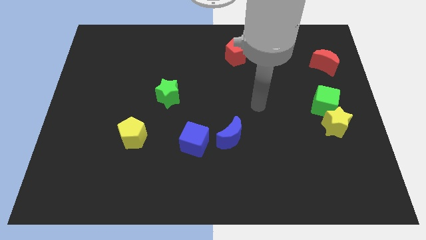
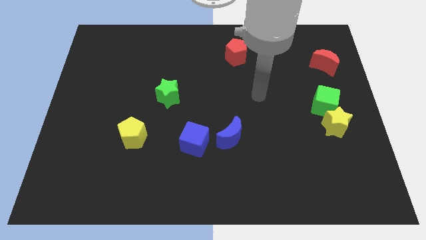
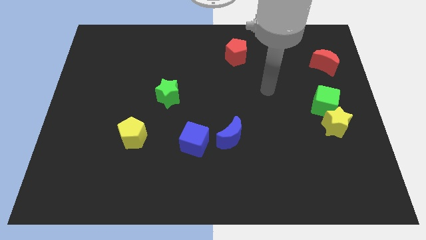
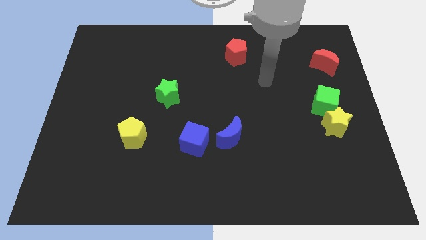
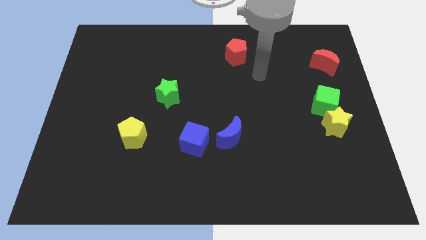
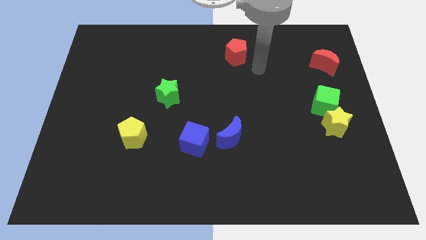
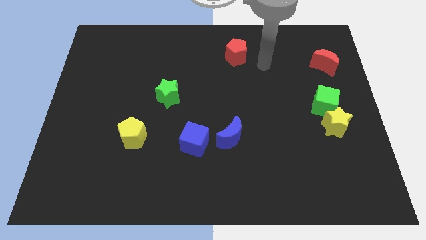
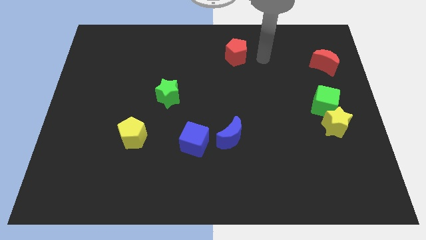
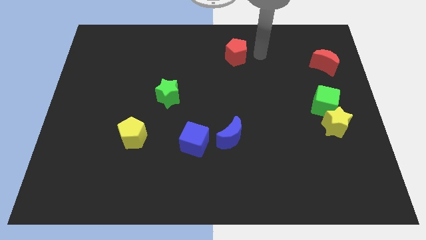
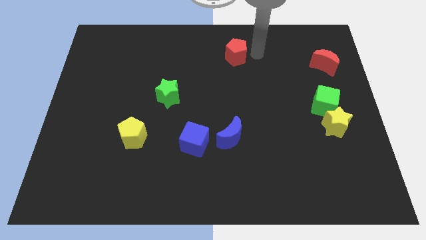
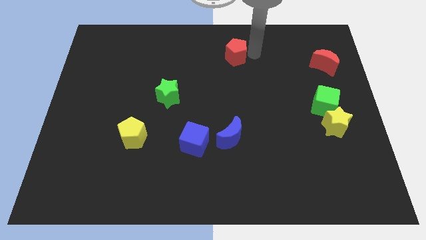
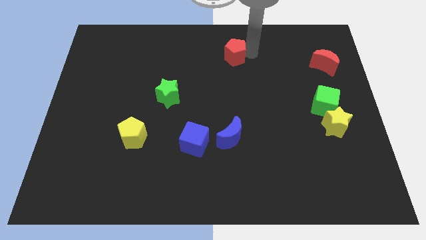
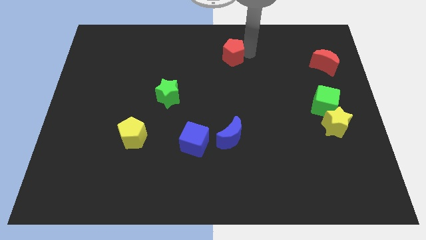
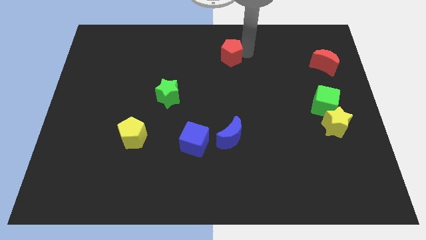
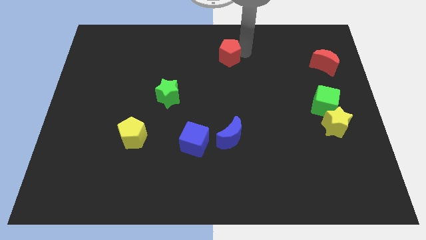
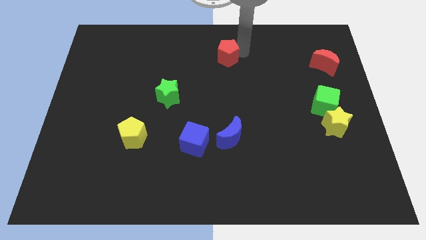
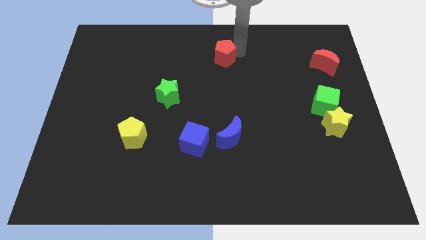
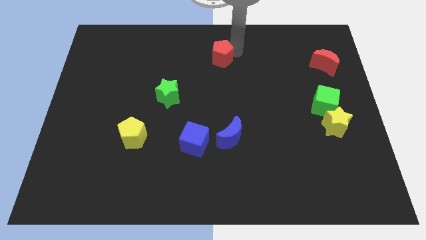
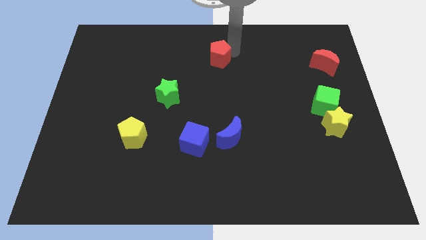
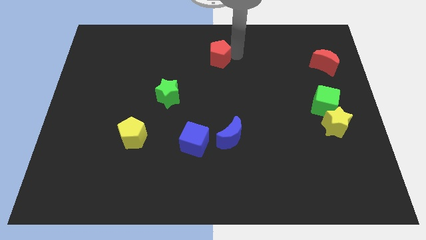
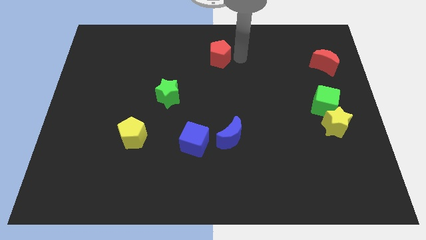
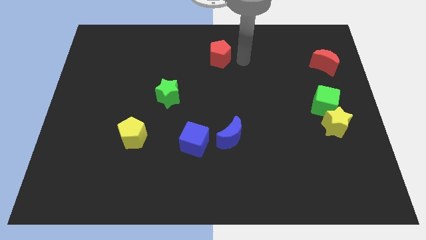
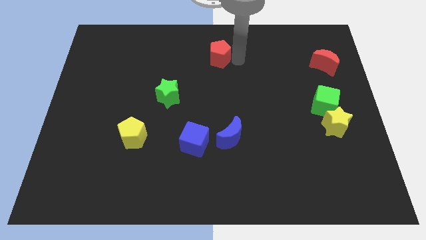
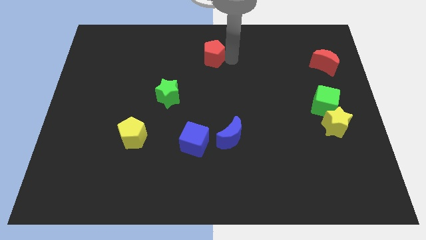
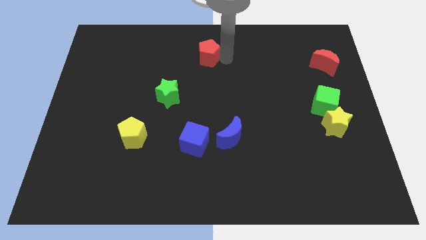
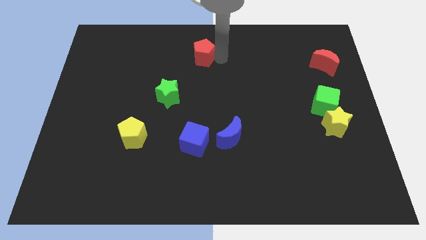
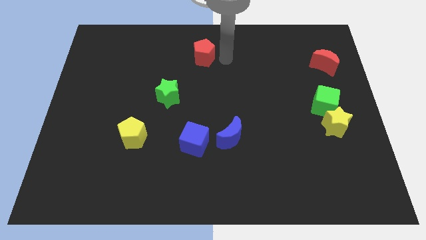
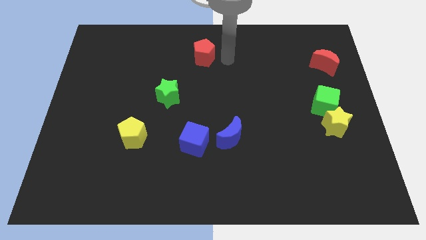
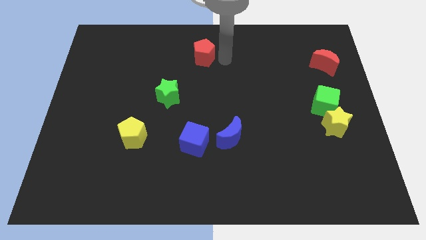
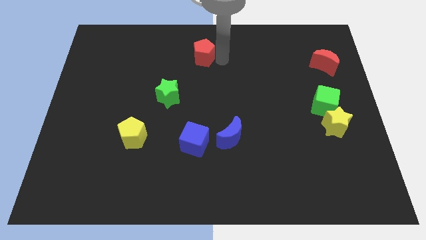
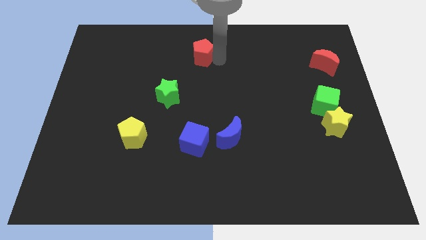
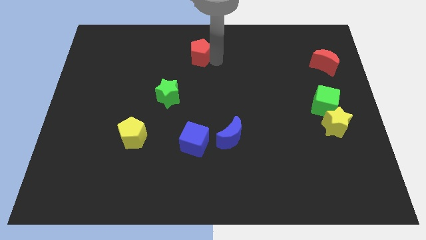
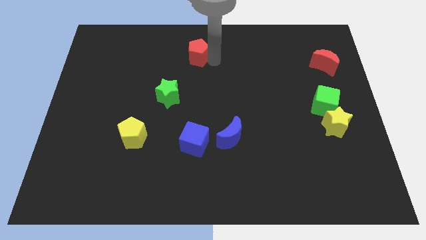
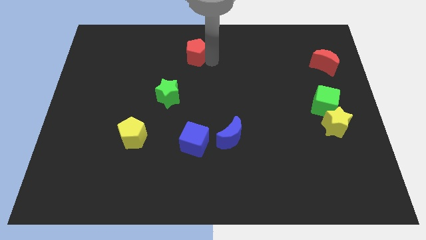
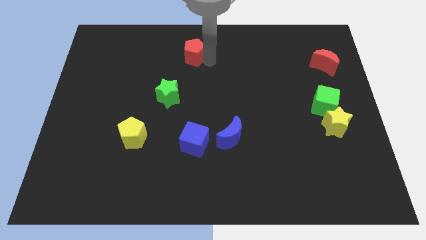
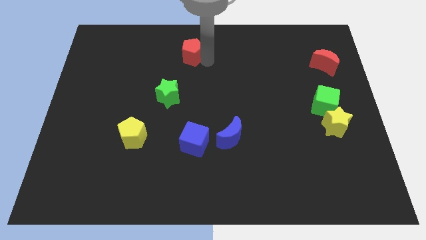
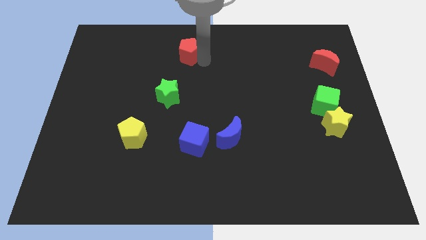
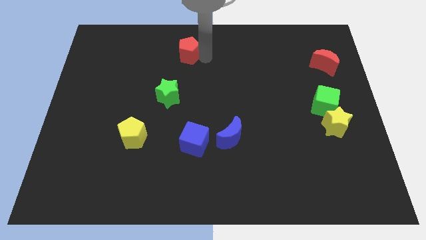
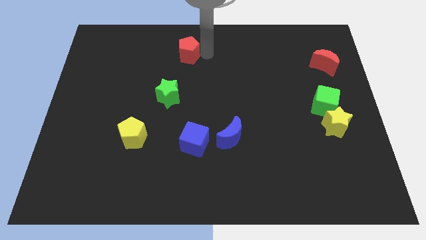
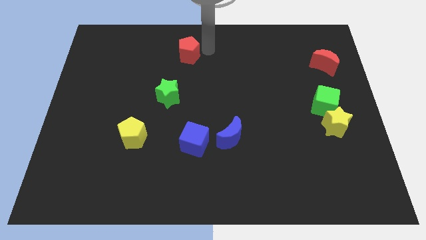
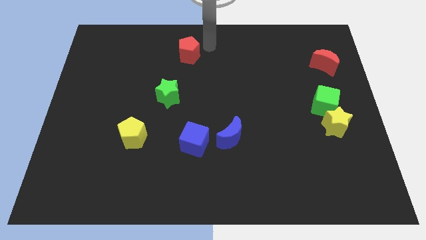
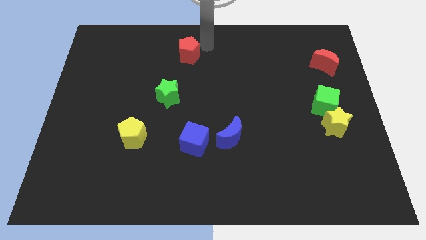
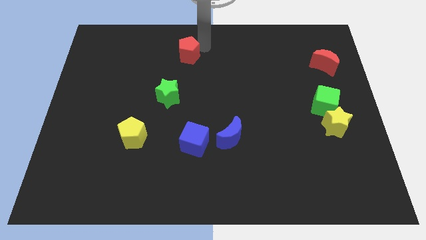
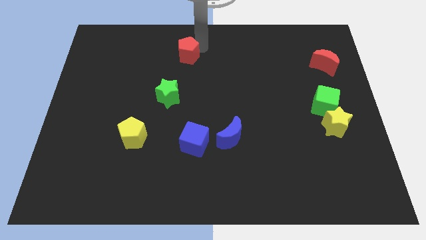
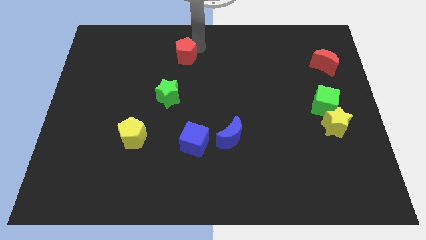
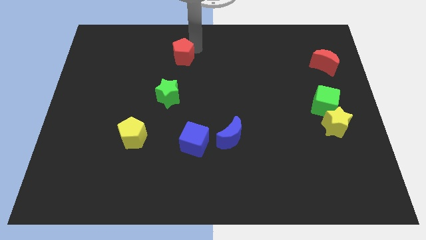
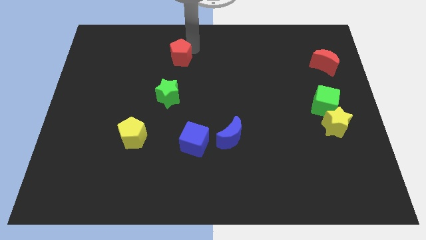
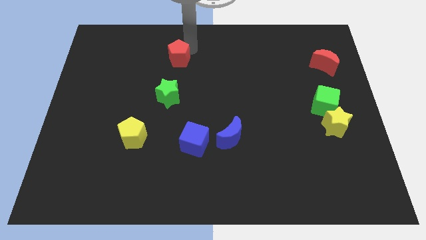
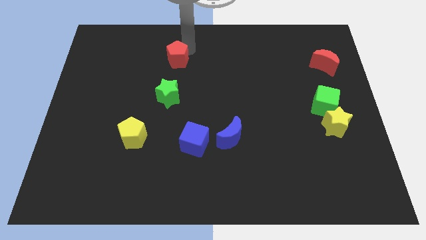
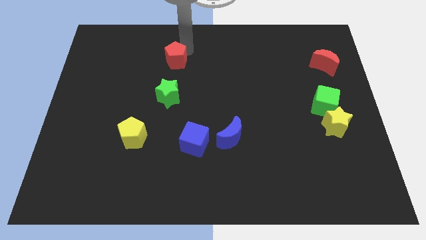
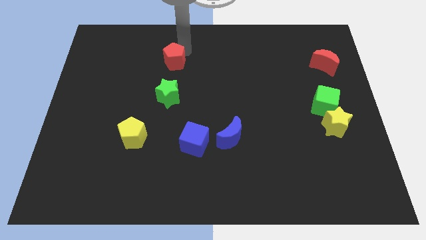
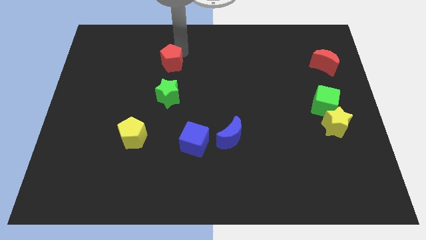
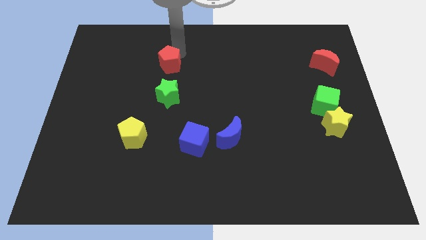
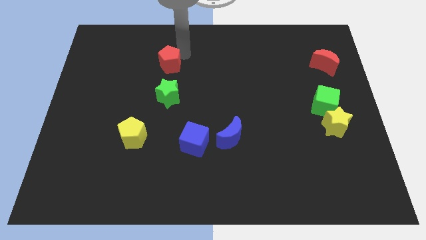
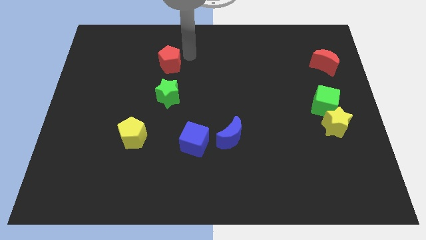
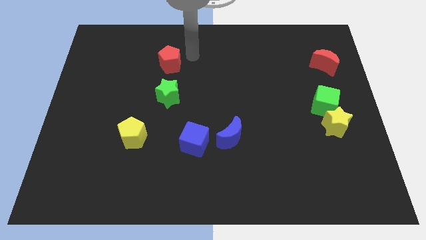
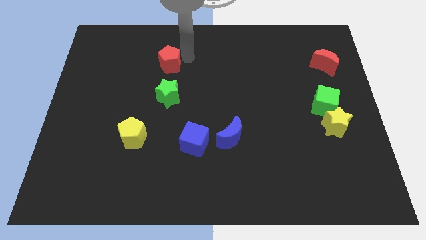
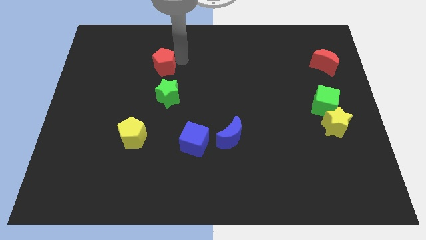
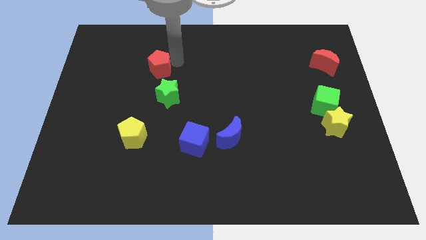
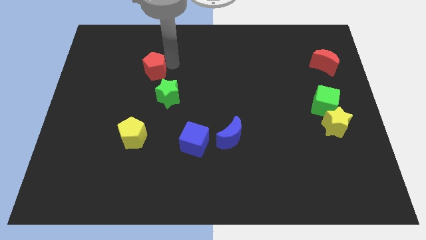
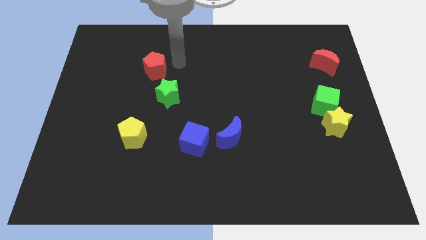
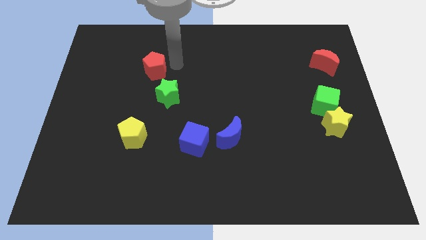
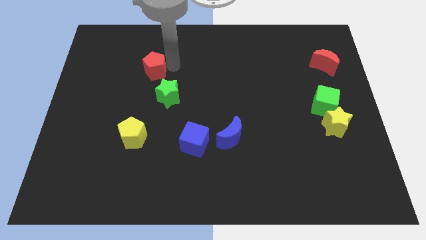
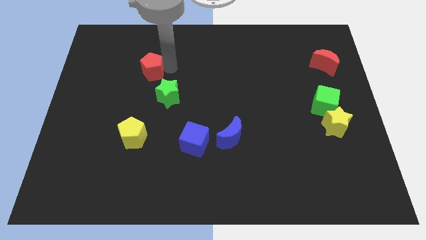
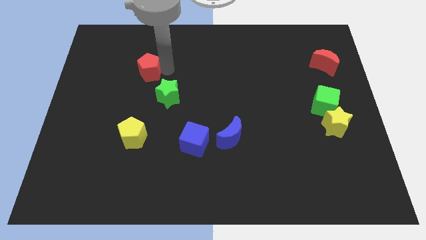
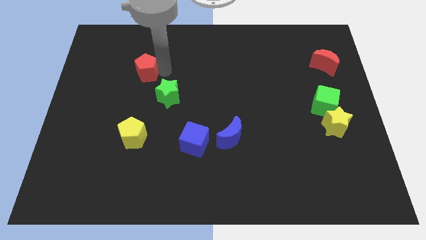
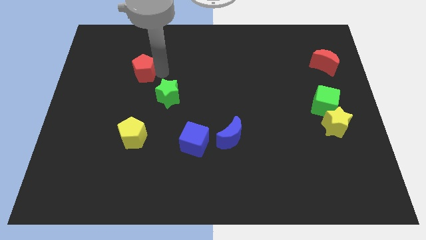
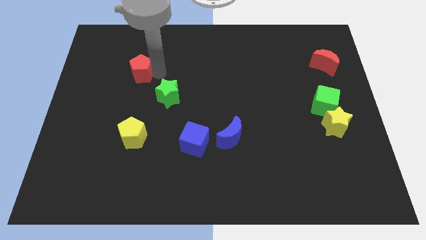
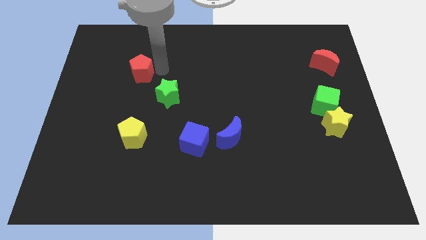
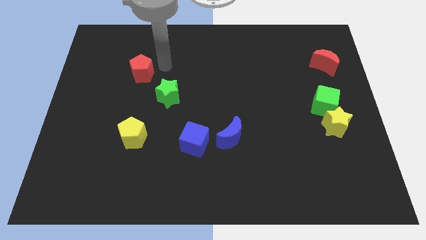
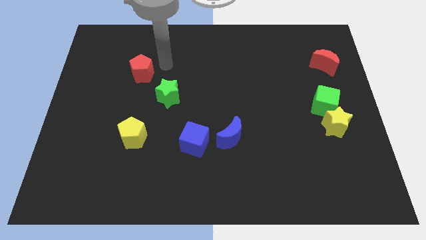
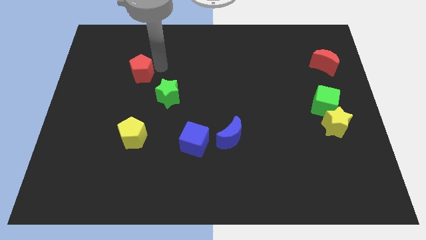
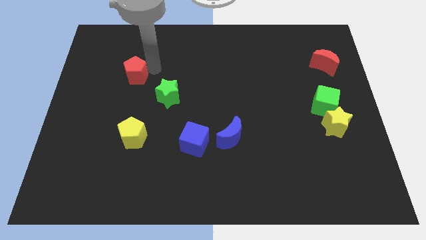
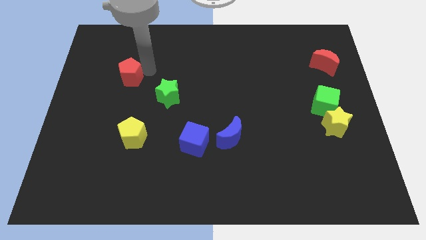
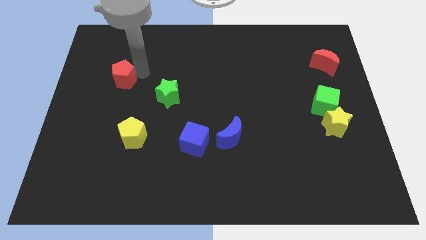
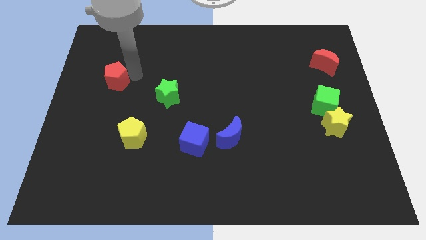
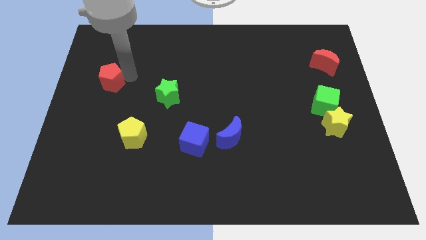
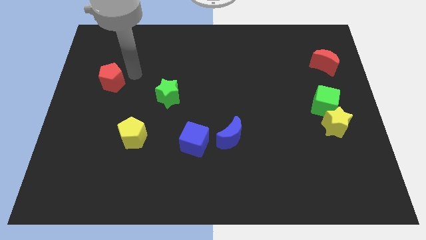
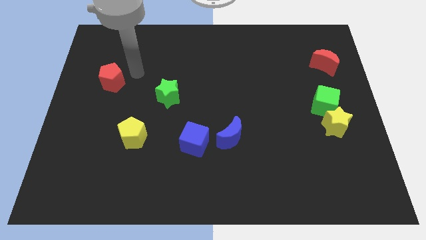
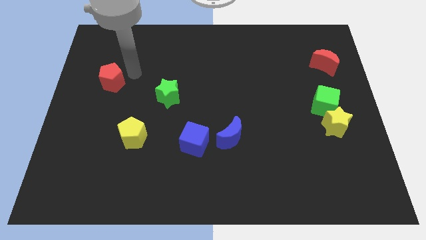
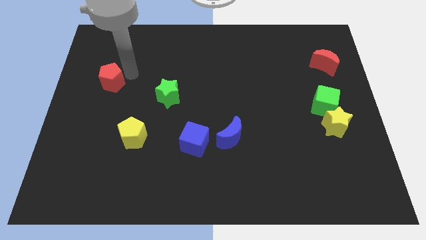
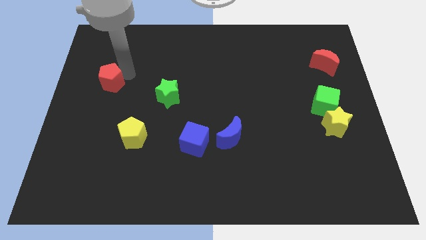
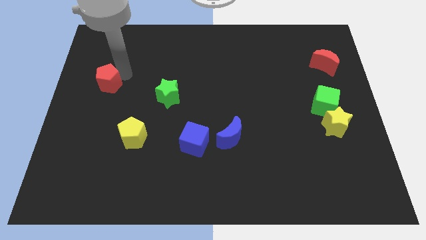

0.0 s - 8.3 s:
put the red pentagon to the center left
